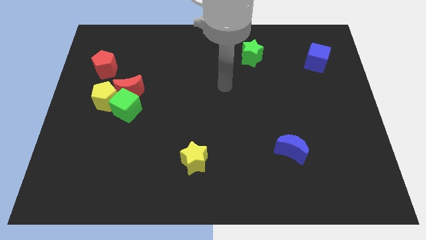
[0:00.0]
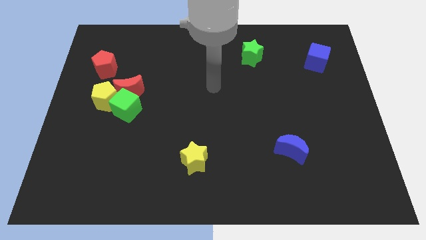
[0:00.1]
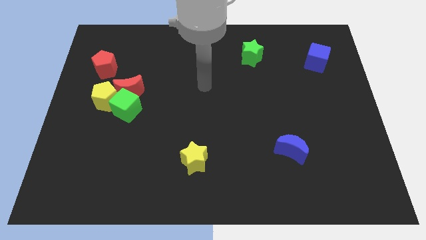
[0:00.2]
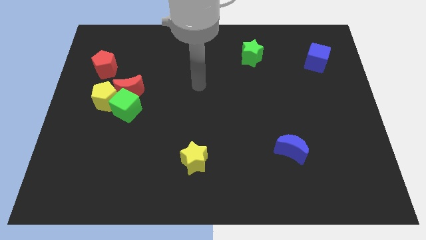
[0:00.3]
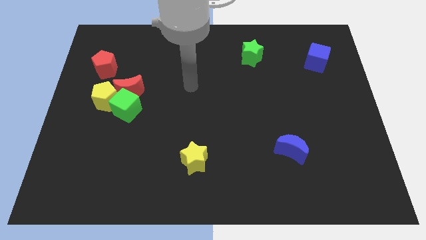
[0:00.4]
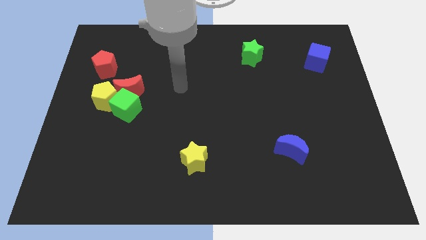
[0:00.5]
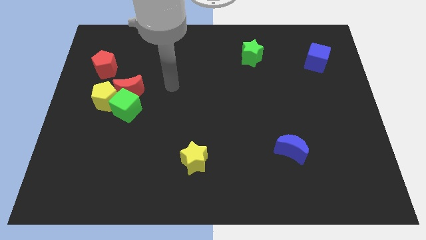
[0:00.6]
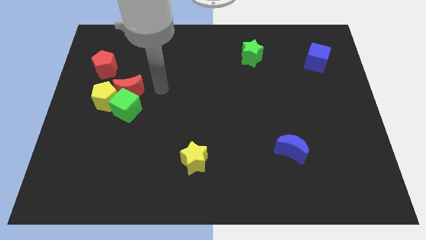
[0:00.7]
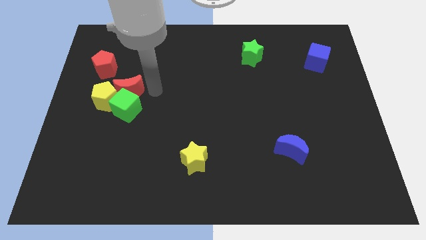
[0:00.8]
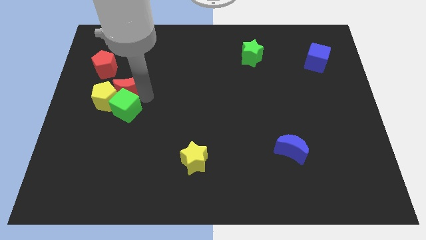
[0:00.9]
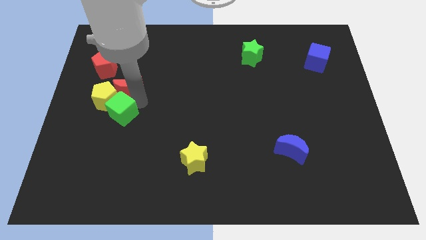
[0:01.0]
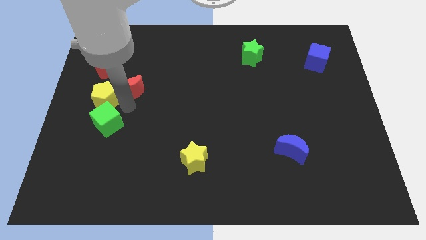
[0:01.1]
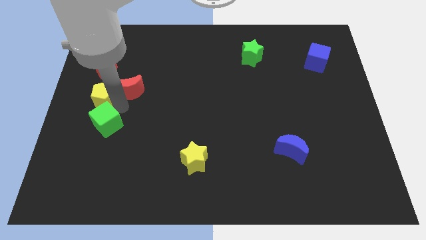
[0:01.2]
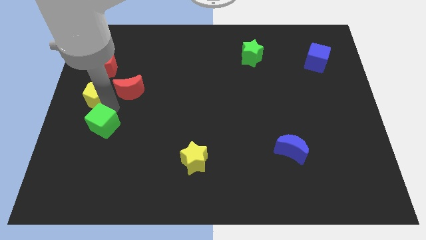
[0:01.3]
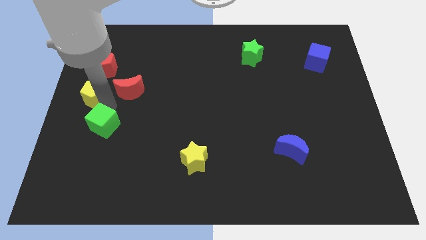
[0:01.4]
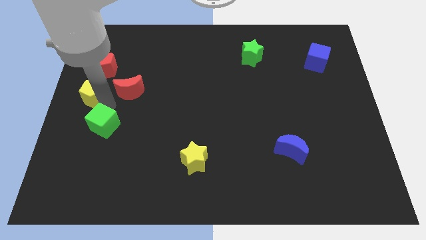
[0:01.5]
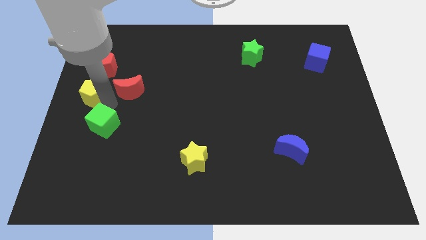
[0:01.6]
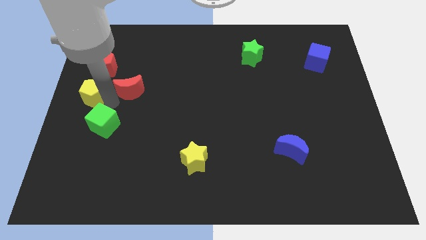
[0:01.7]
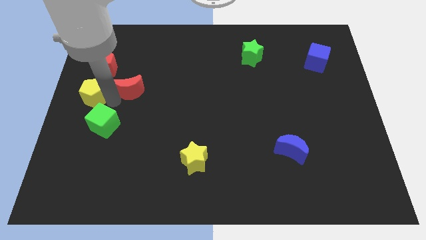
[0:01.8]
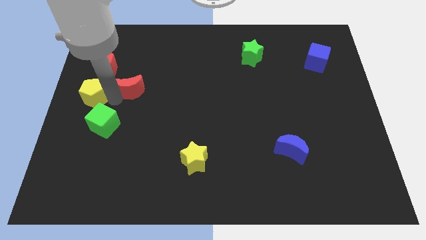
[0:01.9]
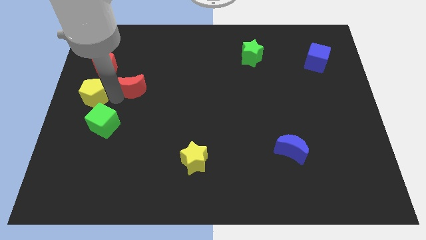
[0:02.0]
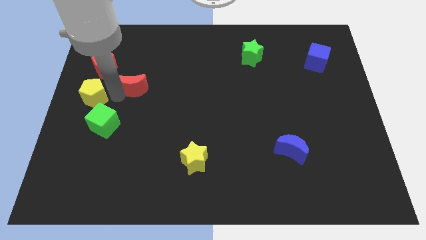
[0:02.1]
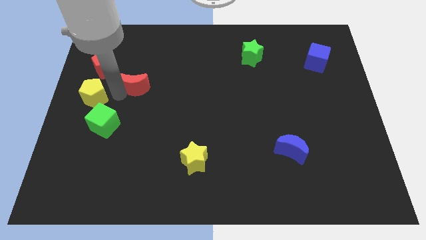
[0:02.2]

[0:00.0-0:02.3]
separate the red moon from the green cube and yellow pentagon

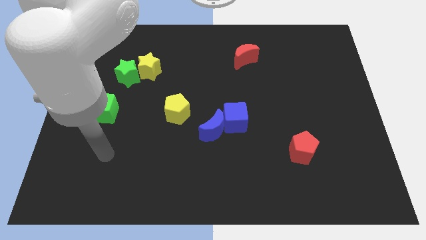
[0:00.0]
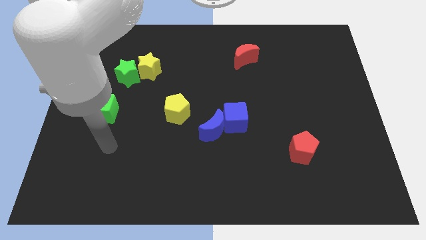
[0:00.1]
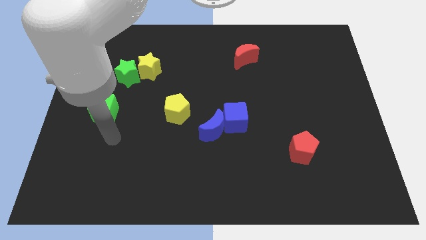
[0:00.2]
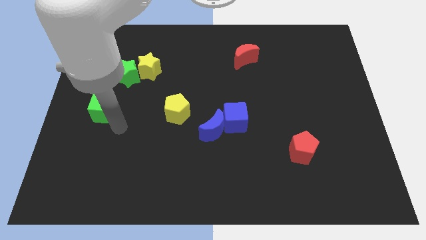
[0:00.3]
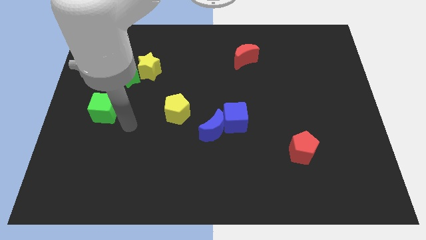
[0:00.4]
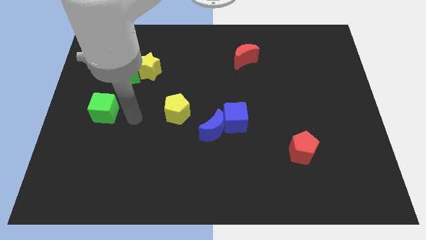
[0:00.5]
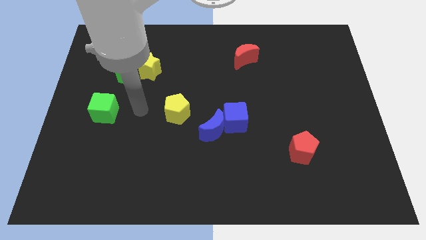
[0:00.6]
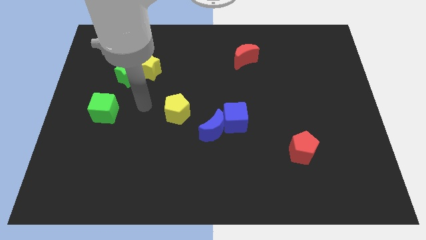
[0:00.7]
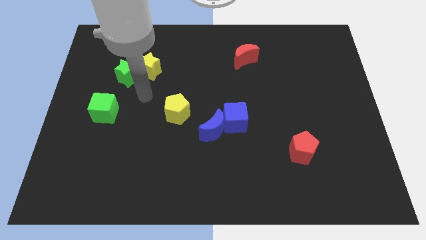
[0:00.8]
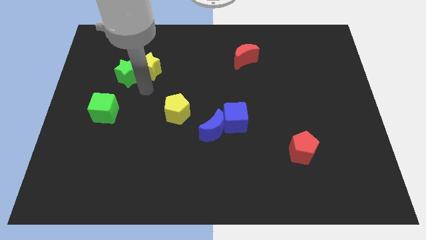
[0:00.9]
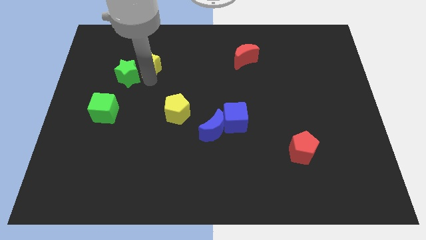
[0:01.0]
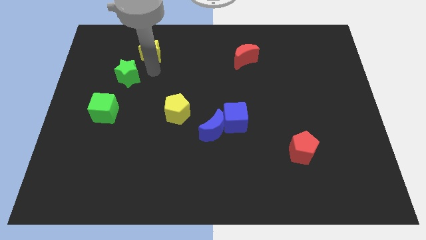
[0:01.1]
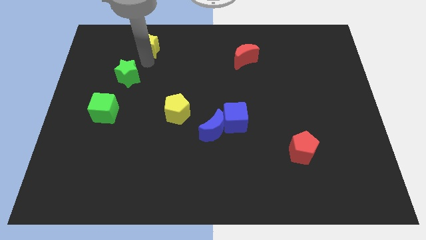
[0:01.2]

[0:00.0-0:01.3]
move the green star away from the yellow star

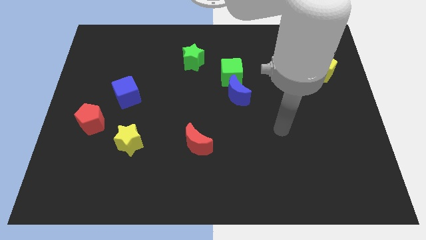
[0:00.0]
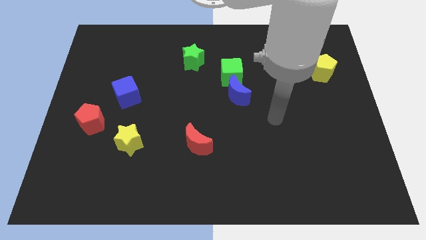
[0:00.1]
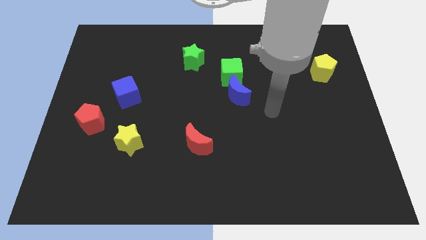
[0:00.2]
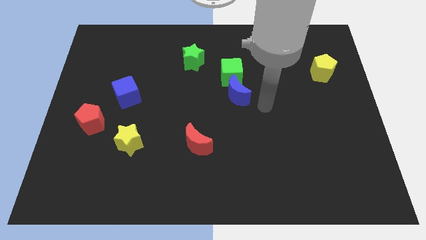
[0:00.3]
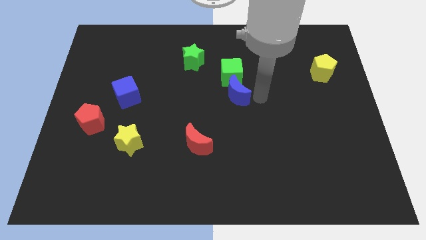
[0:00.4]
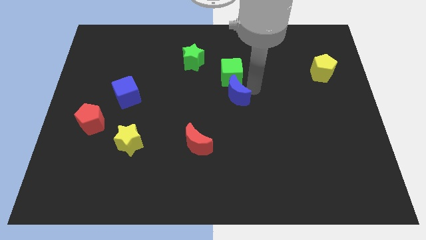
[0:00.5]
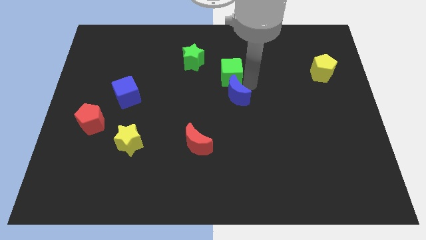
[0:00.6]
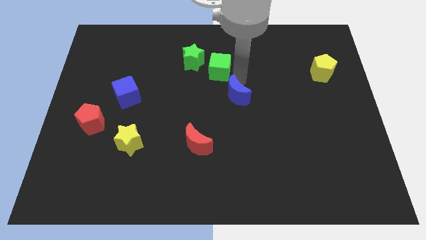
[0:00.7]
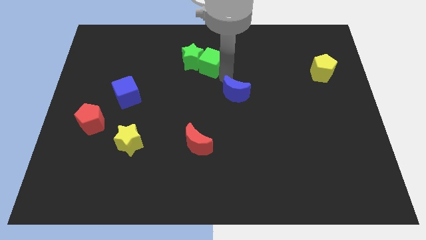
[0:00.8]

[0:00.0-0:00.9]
separate the blue moon from the green cube

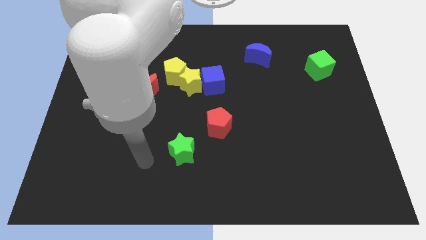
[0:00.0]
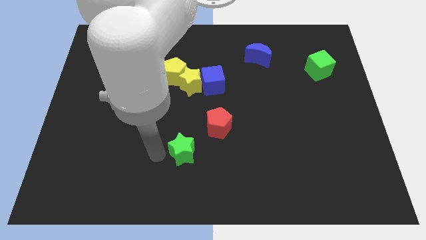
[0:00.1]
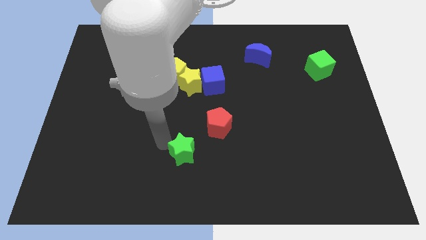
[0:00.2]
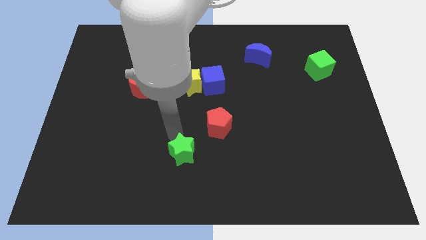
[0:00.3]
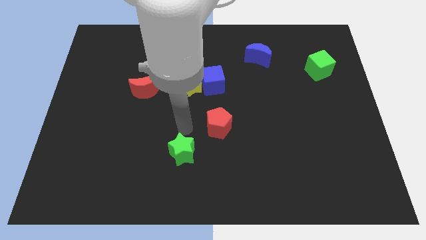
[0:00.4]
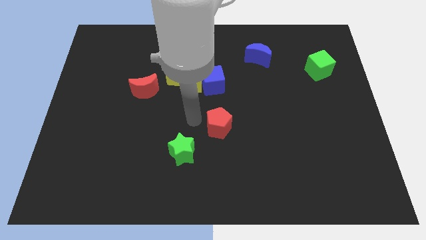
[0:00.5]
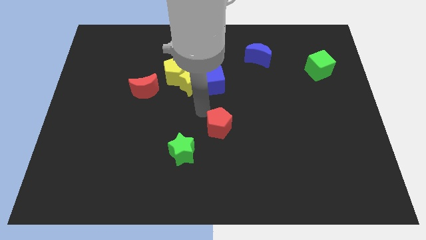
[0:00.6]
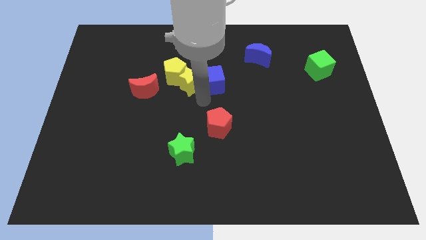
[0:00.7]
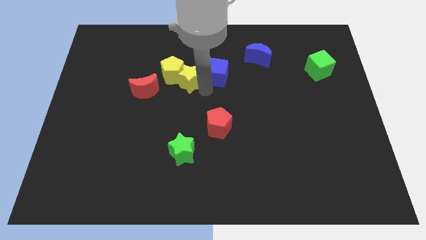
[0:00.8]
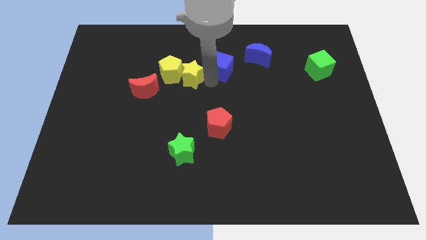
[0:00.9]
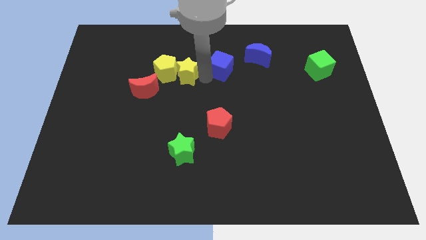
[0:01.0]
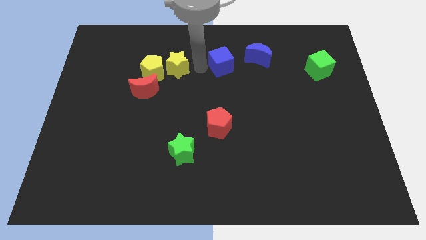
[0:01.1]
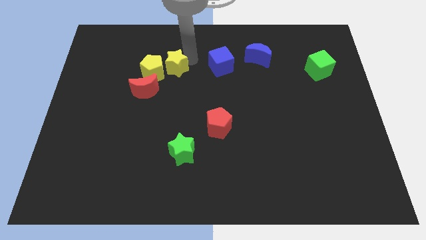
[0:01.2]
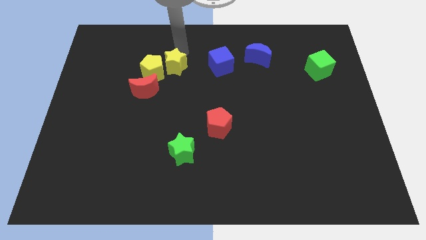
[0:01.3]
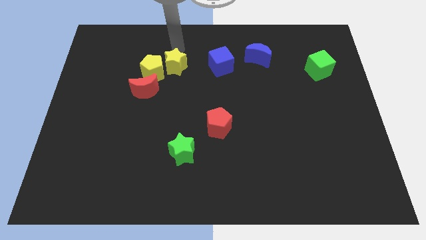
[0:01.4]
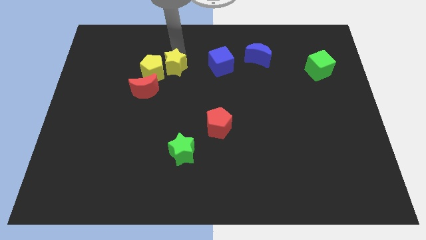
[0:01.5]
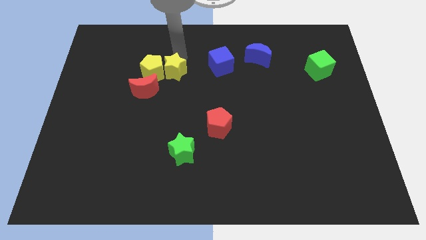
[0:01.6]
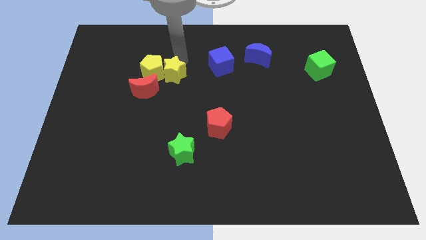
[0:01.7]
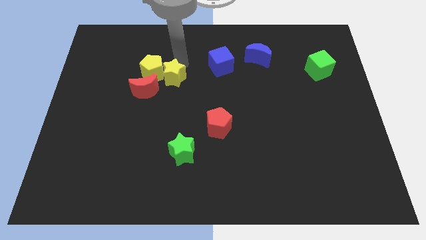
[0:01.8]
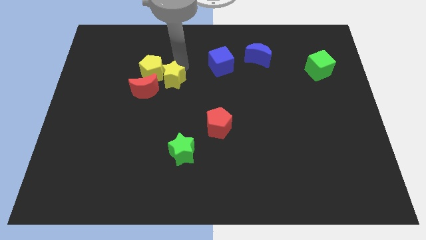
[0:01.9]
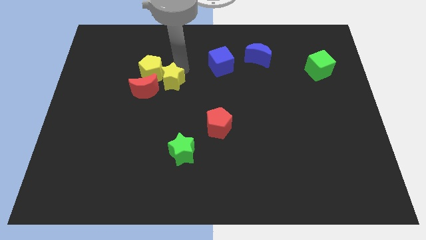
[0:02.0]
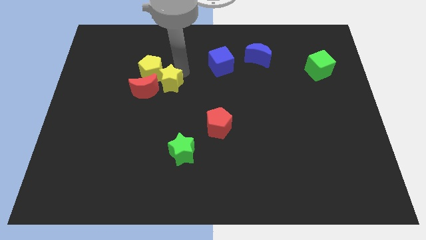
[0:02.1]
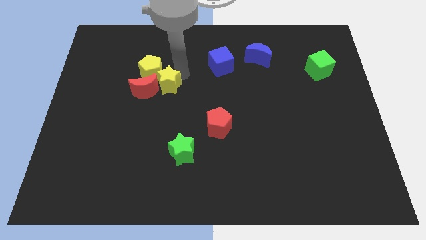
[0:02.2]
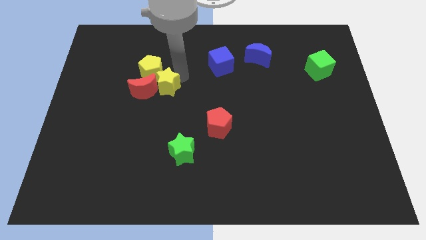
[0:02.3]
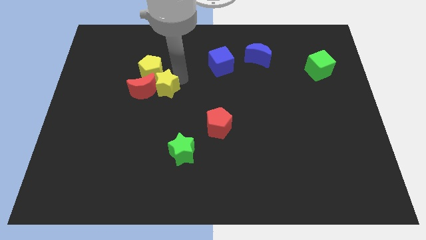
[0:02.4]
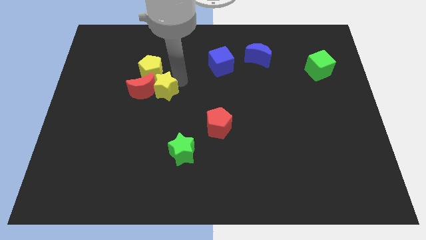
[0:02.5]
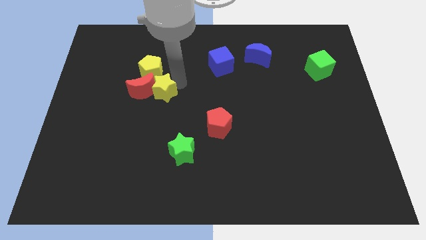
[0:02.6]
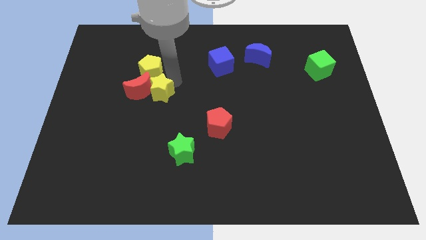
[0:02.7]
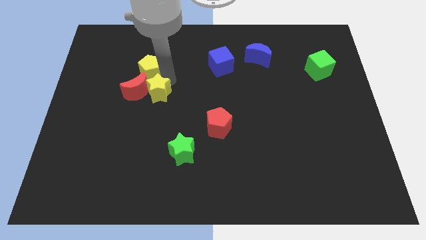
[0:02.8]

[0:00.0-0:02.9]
move the yellow star away from the yellow pentagon and blue cube

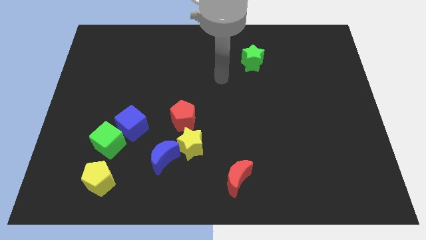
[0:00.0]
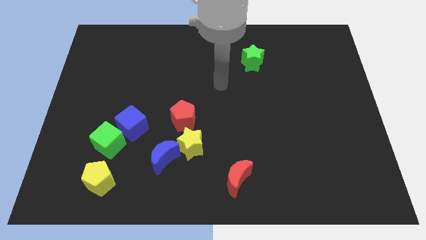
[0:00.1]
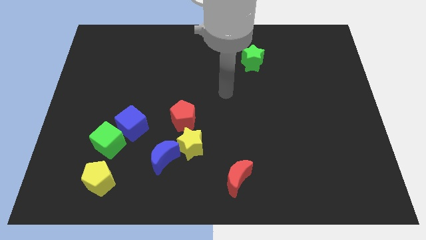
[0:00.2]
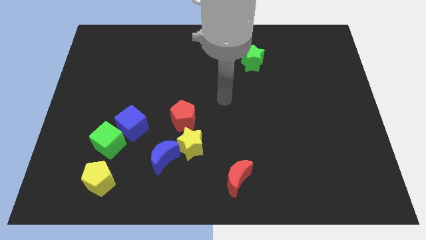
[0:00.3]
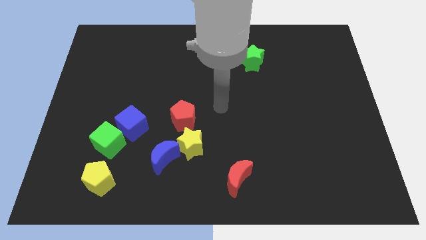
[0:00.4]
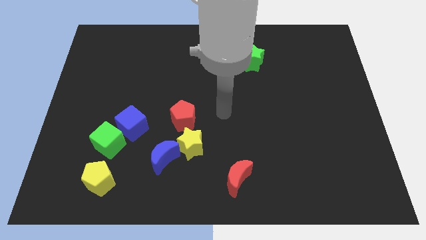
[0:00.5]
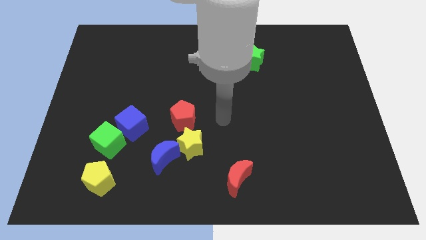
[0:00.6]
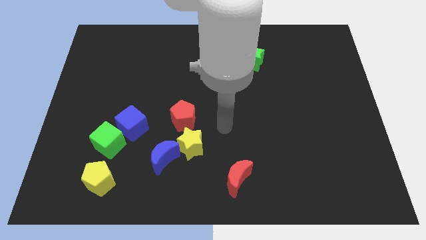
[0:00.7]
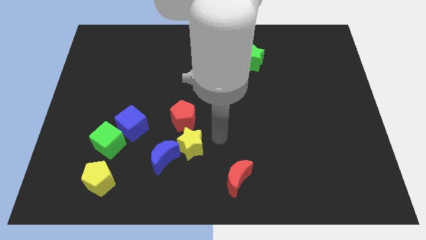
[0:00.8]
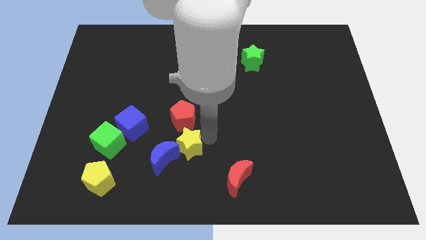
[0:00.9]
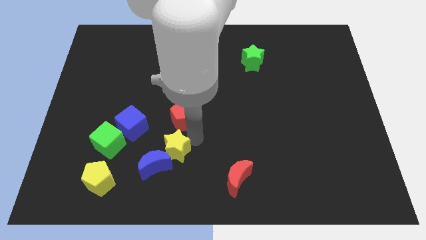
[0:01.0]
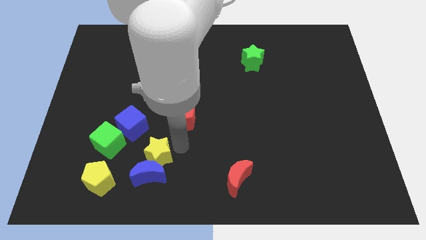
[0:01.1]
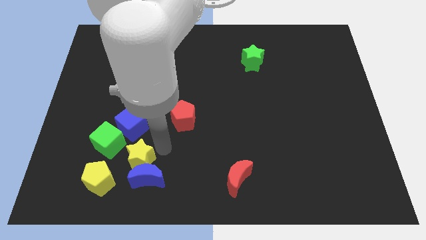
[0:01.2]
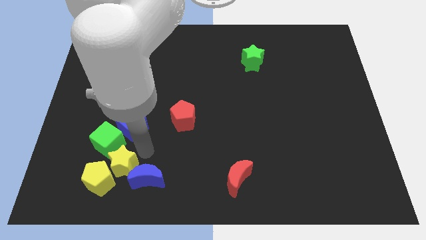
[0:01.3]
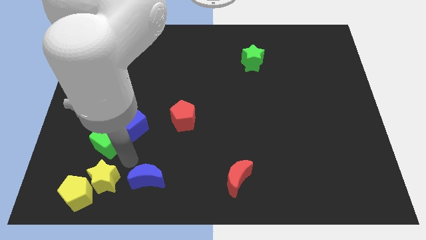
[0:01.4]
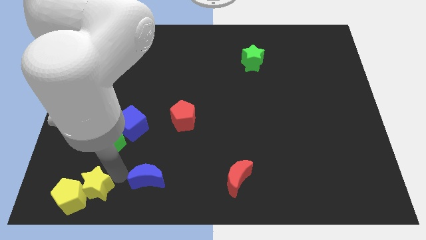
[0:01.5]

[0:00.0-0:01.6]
move the blue moon away from the yellow star

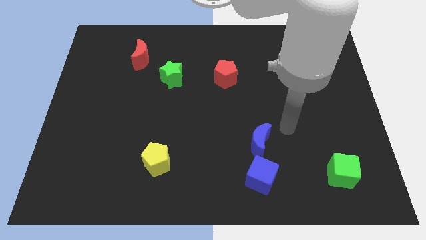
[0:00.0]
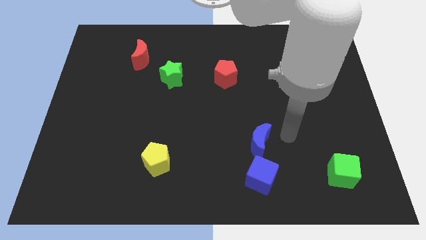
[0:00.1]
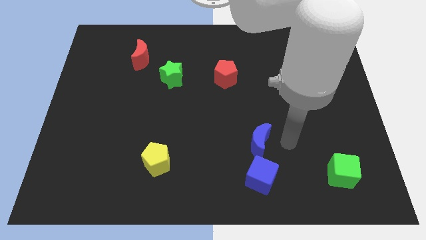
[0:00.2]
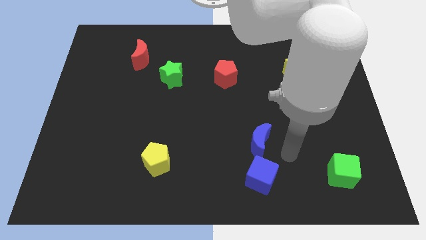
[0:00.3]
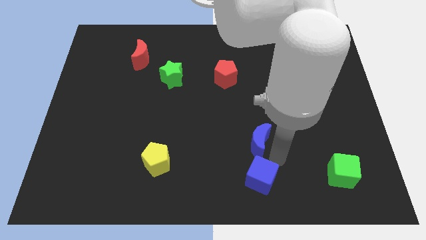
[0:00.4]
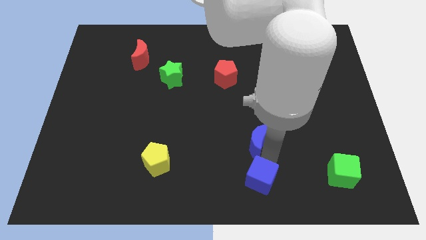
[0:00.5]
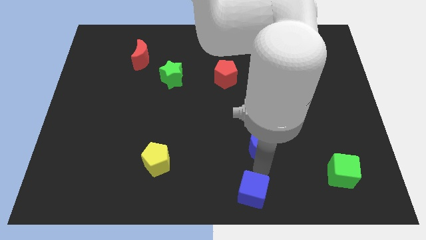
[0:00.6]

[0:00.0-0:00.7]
move the blue moon away from the blue cube
